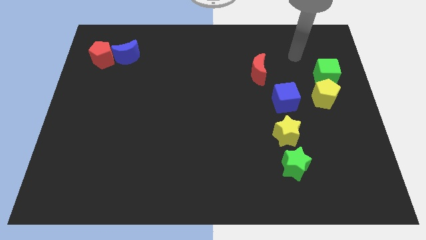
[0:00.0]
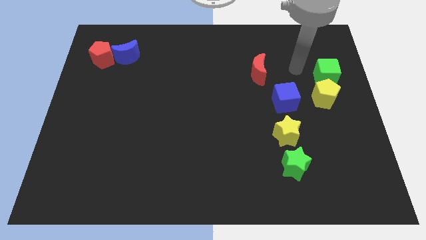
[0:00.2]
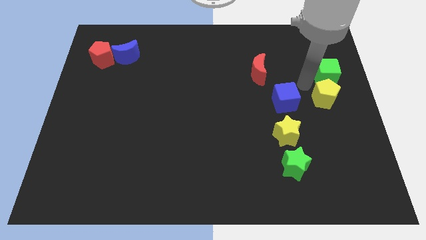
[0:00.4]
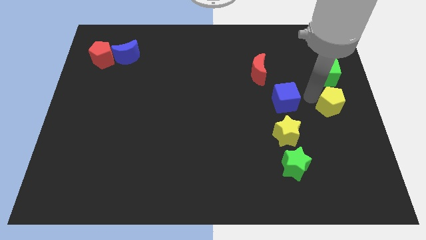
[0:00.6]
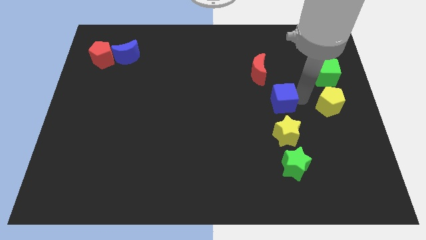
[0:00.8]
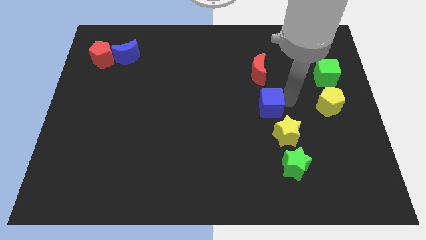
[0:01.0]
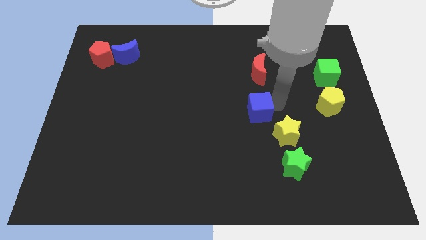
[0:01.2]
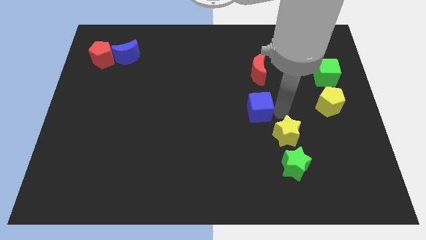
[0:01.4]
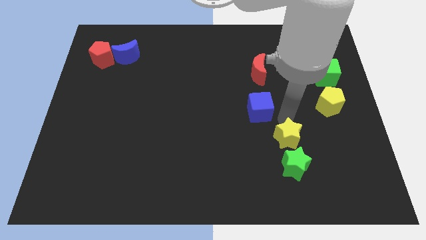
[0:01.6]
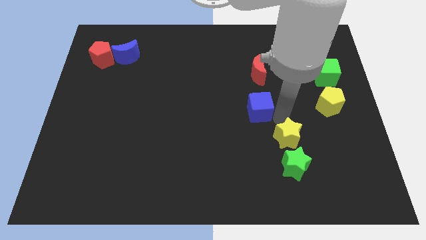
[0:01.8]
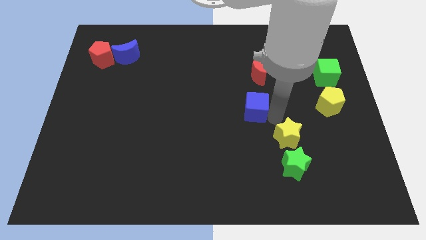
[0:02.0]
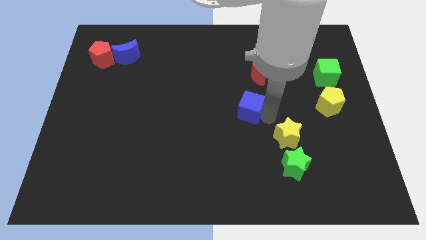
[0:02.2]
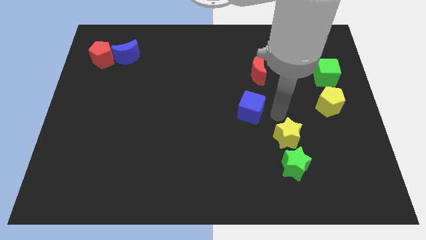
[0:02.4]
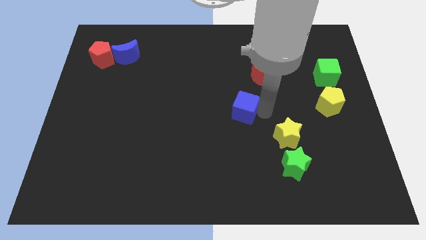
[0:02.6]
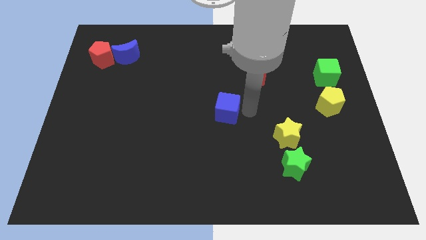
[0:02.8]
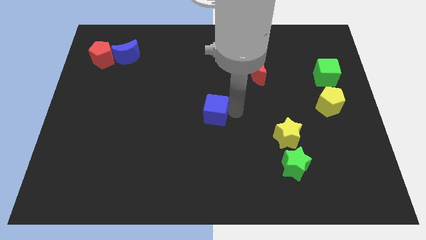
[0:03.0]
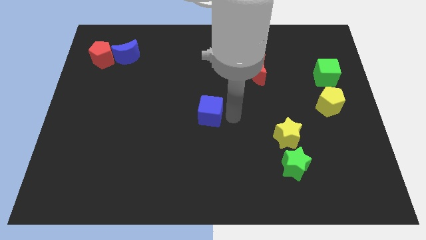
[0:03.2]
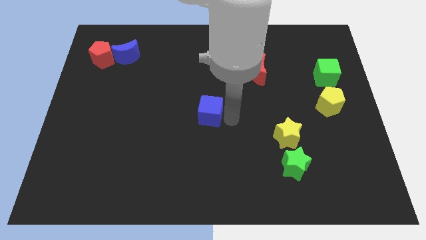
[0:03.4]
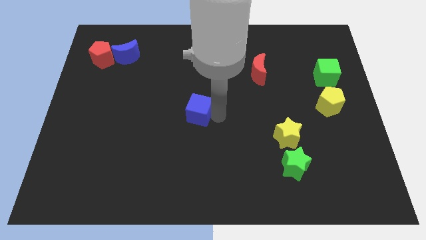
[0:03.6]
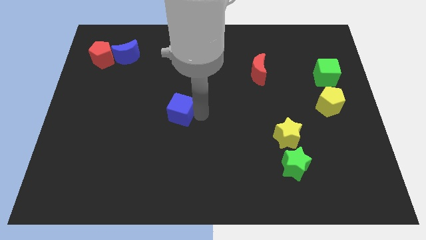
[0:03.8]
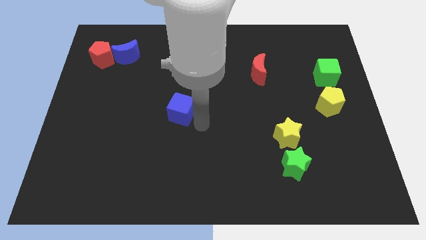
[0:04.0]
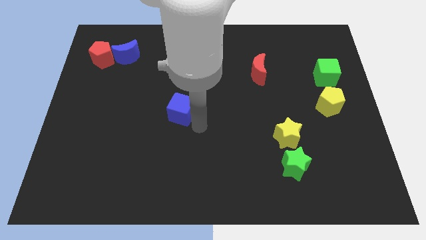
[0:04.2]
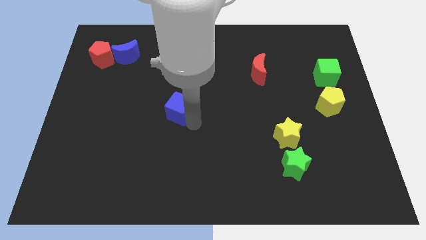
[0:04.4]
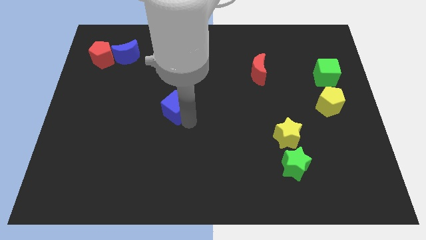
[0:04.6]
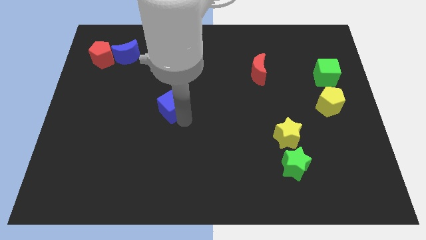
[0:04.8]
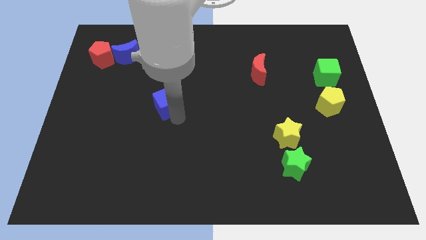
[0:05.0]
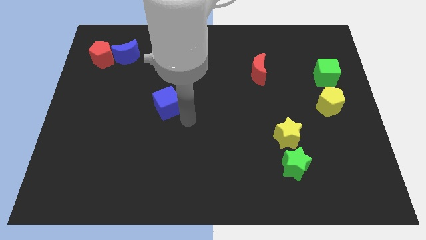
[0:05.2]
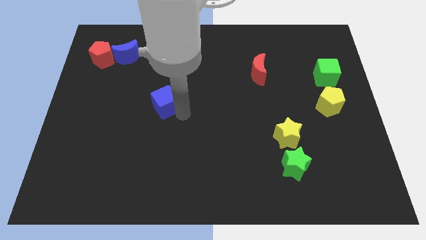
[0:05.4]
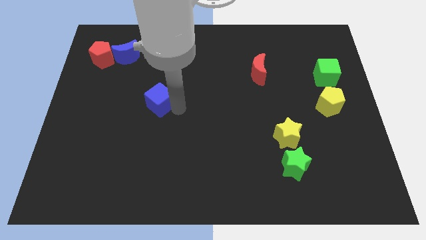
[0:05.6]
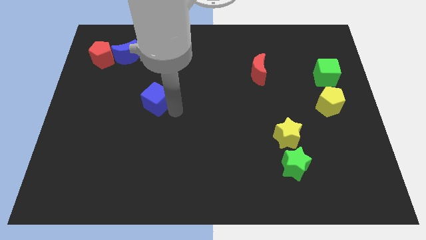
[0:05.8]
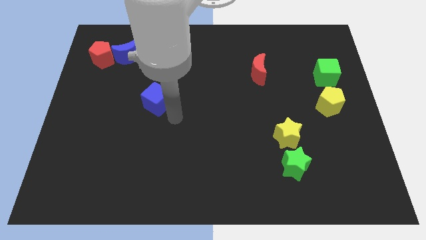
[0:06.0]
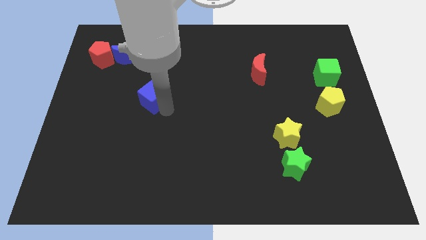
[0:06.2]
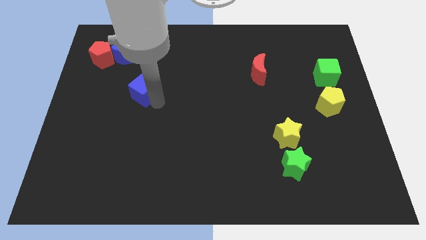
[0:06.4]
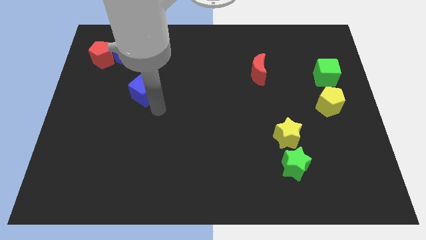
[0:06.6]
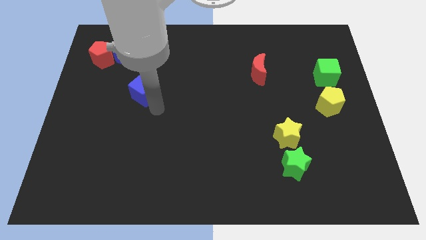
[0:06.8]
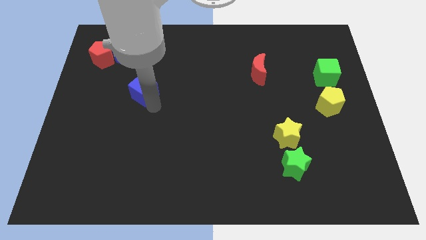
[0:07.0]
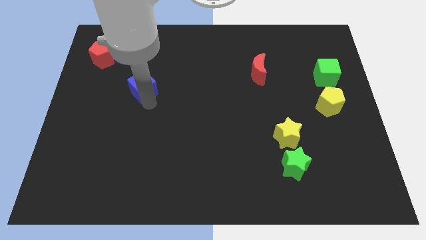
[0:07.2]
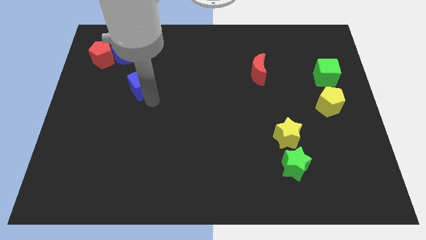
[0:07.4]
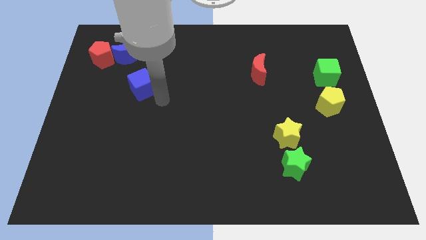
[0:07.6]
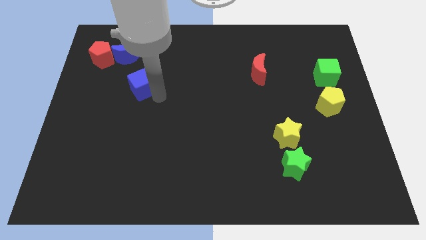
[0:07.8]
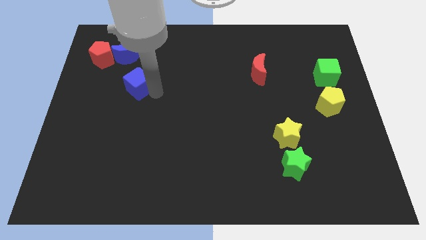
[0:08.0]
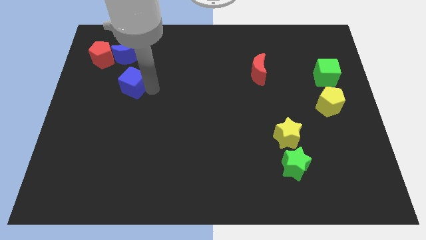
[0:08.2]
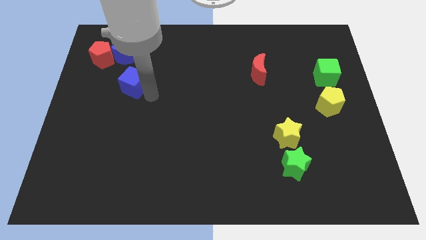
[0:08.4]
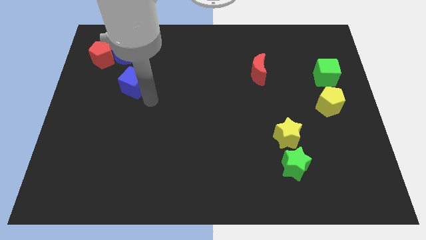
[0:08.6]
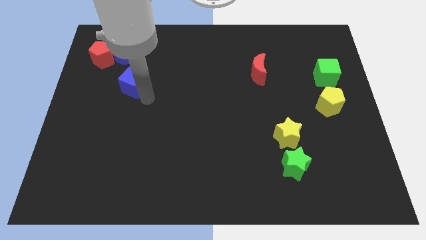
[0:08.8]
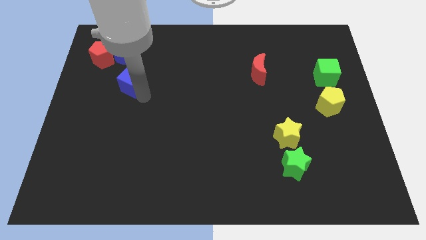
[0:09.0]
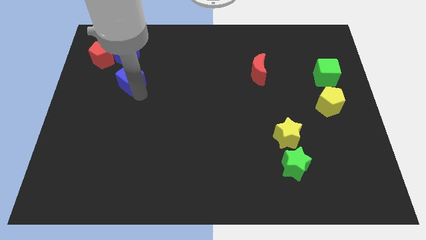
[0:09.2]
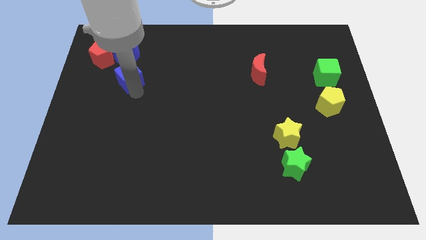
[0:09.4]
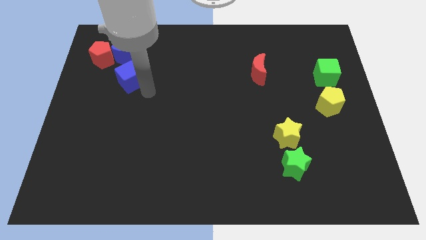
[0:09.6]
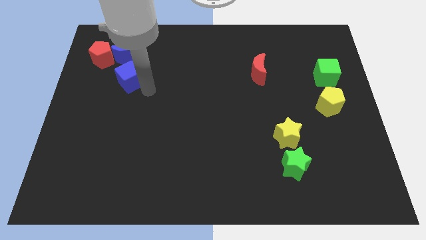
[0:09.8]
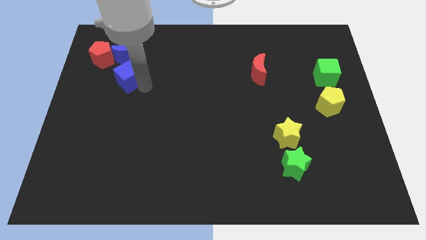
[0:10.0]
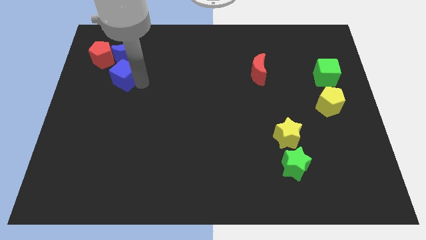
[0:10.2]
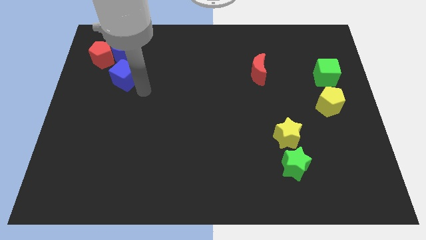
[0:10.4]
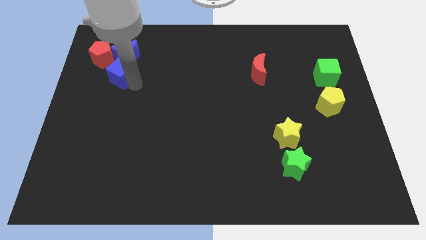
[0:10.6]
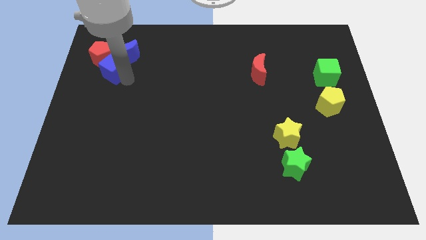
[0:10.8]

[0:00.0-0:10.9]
move the blue cube towards the red pentagon

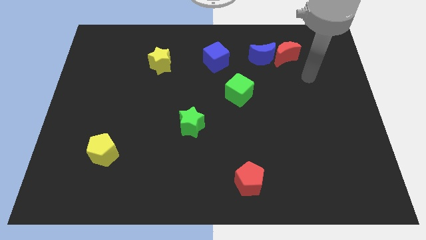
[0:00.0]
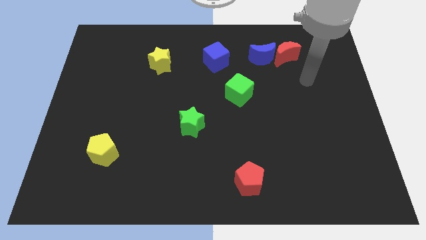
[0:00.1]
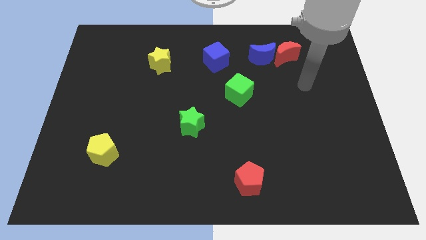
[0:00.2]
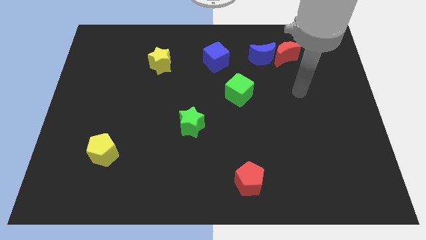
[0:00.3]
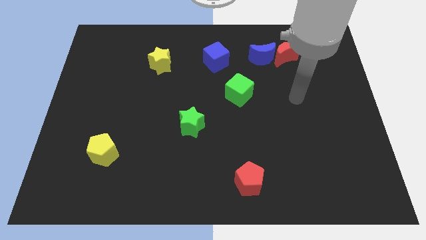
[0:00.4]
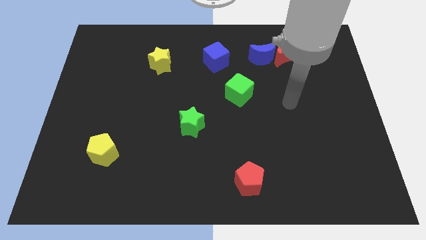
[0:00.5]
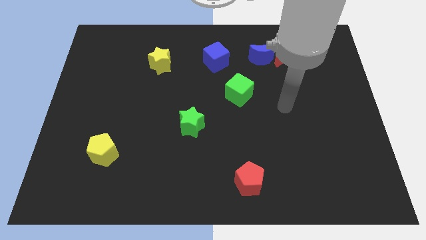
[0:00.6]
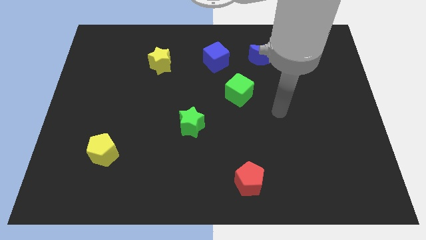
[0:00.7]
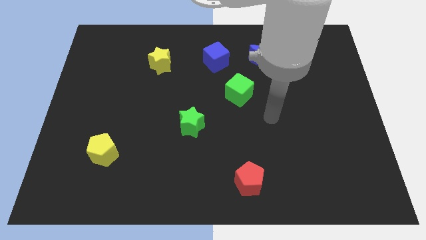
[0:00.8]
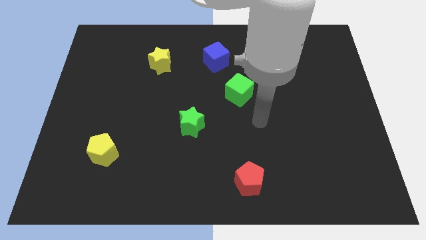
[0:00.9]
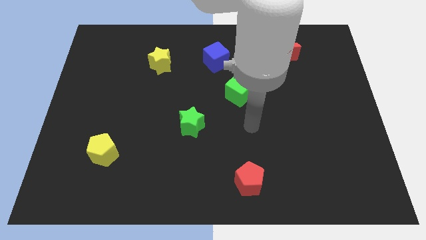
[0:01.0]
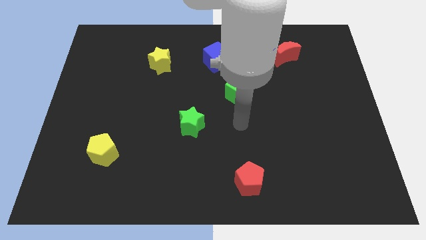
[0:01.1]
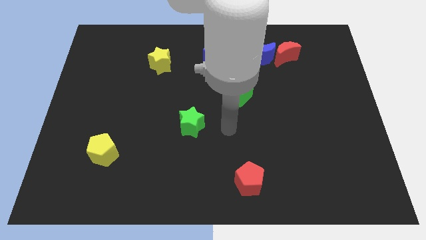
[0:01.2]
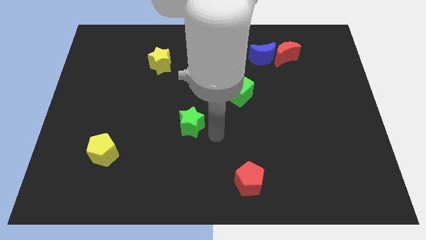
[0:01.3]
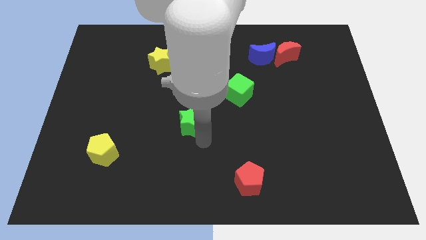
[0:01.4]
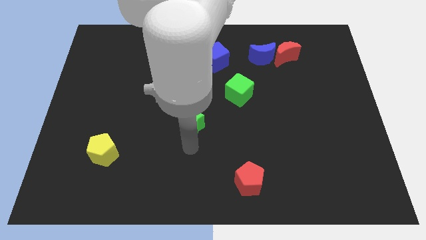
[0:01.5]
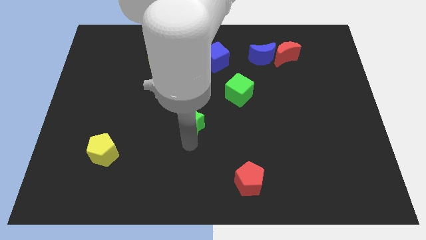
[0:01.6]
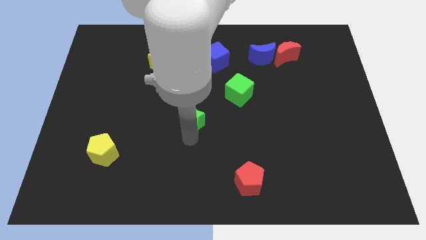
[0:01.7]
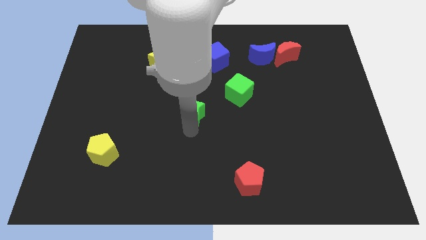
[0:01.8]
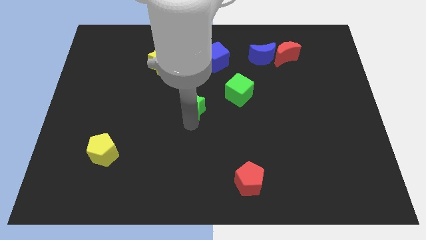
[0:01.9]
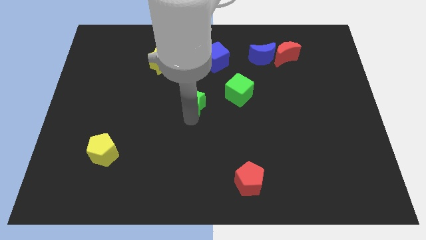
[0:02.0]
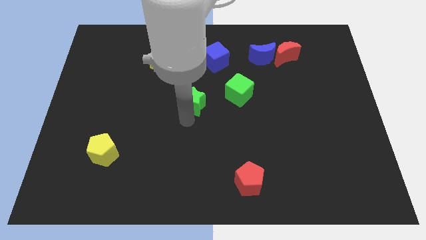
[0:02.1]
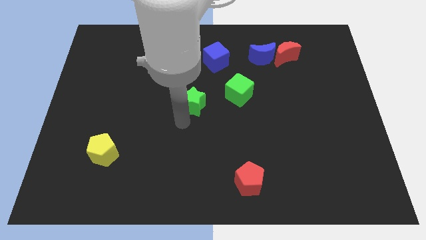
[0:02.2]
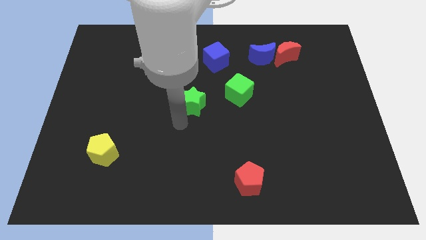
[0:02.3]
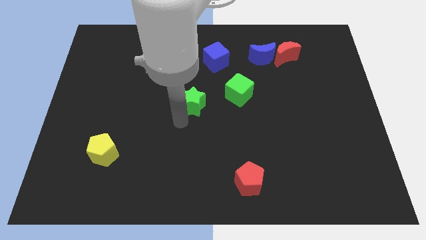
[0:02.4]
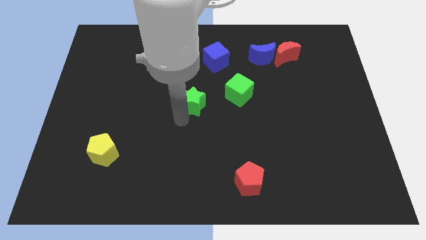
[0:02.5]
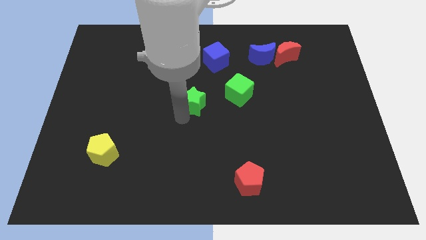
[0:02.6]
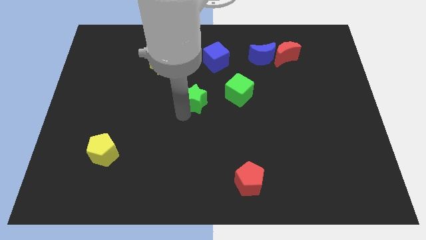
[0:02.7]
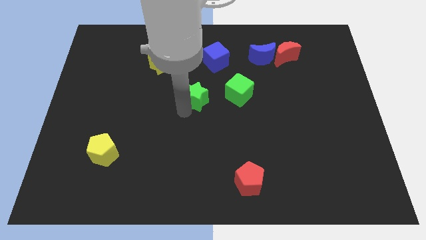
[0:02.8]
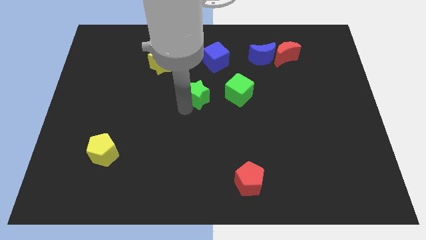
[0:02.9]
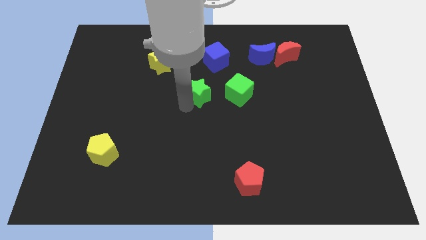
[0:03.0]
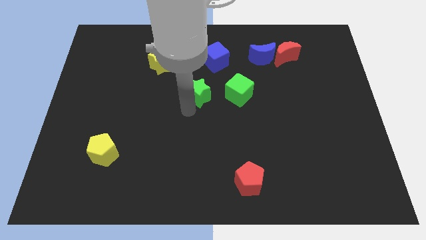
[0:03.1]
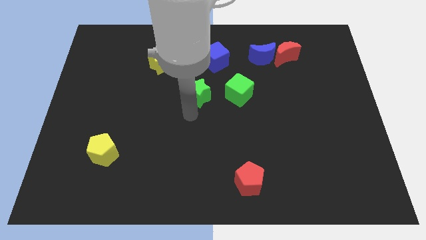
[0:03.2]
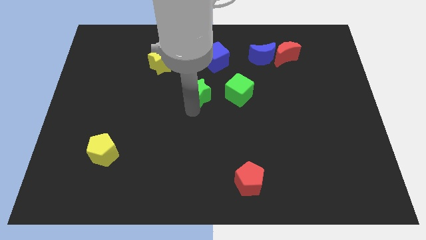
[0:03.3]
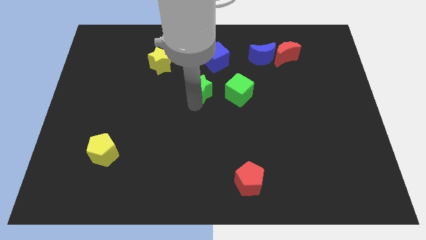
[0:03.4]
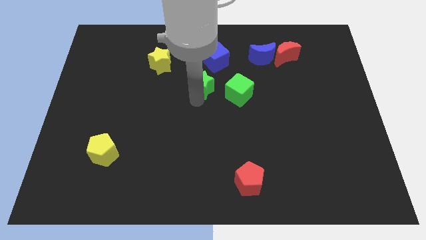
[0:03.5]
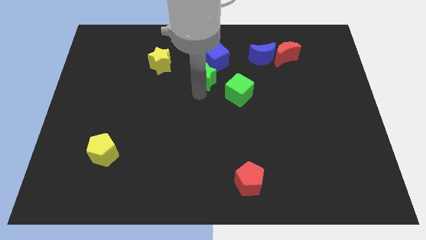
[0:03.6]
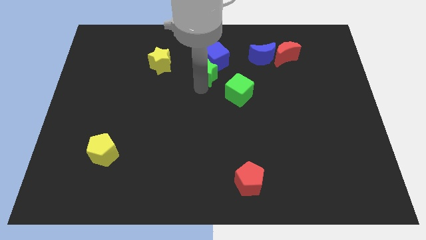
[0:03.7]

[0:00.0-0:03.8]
slide the green star close to the blue cube
